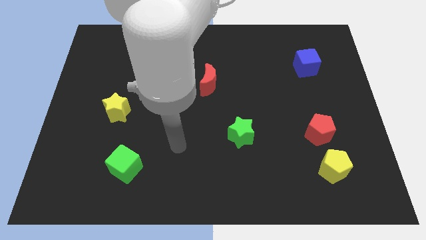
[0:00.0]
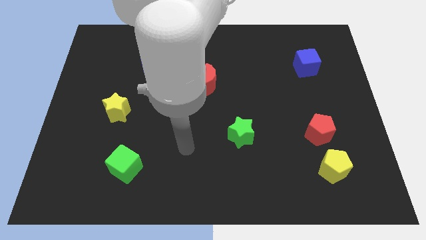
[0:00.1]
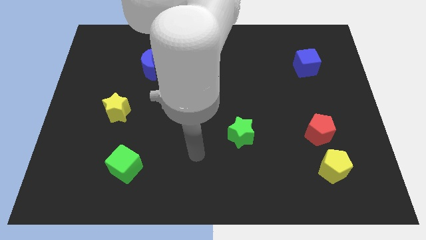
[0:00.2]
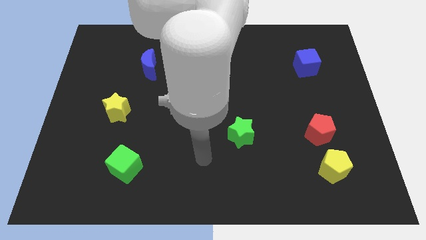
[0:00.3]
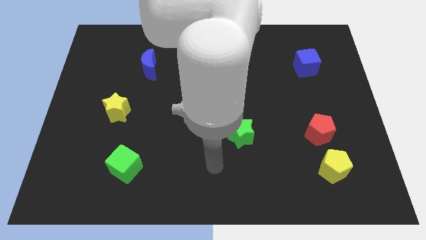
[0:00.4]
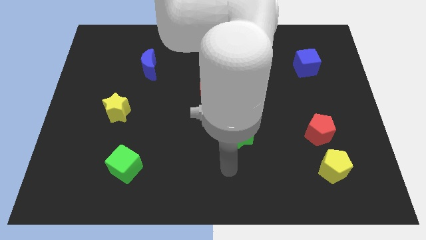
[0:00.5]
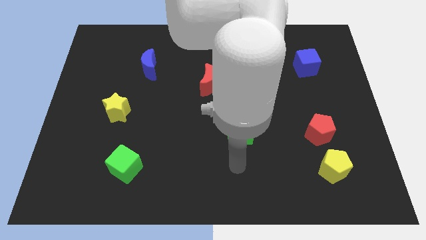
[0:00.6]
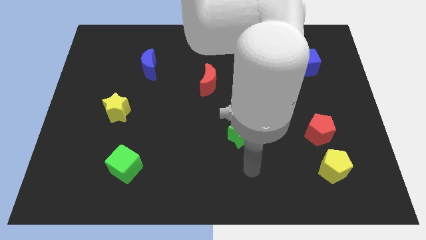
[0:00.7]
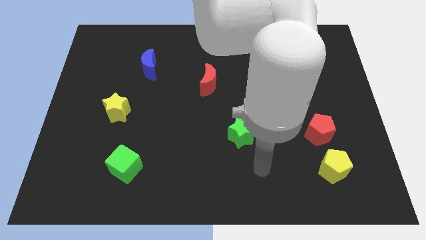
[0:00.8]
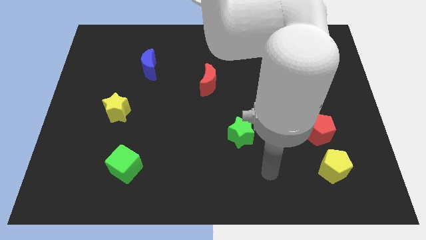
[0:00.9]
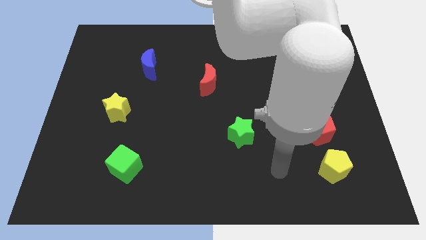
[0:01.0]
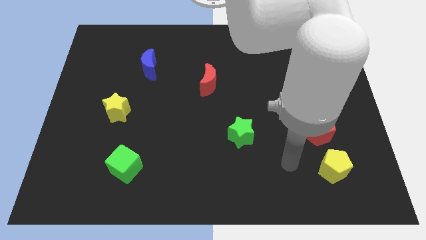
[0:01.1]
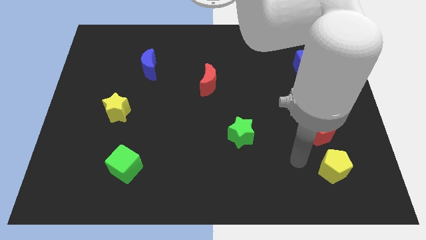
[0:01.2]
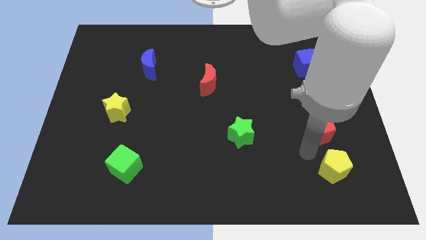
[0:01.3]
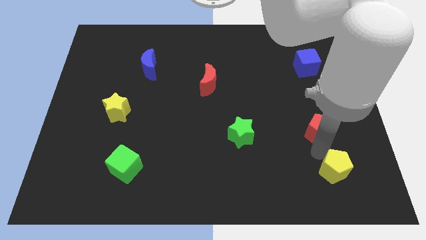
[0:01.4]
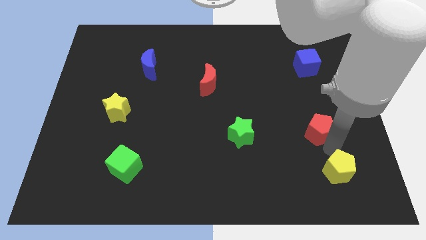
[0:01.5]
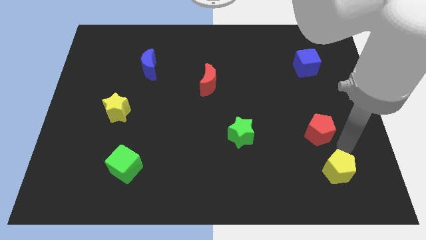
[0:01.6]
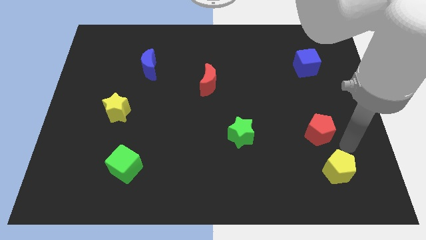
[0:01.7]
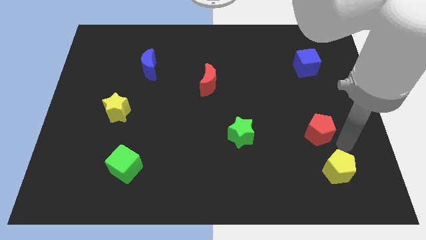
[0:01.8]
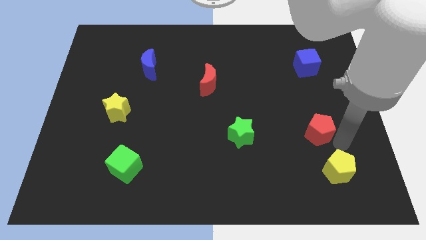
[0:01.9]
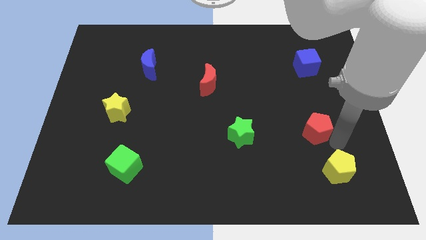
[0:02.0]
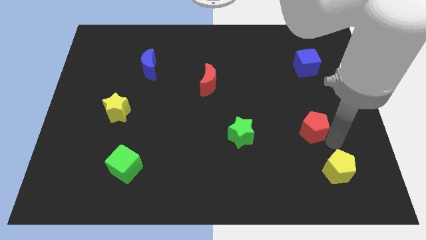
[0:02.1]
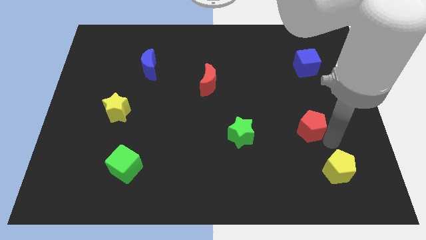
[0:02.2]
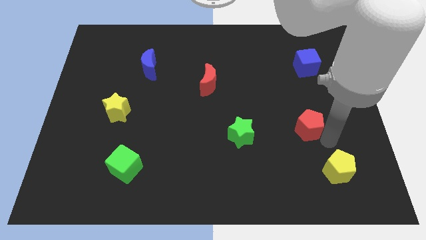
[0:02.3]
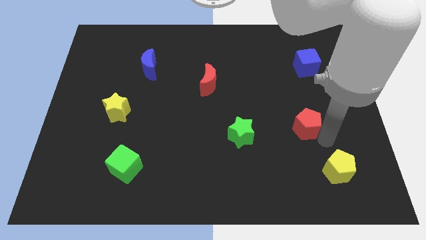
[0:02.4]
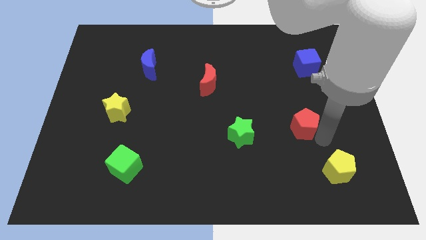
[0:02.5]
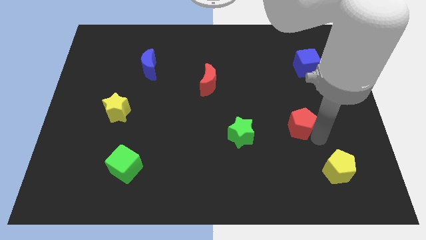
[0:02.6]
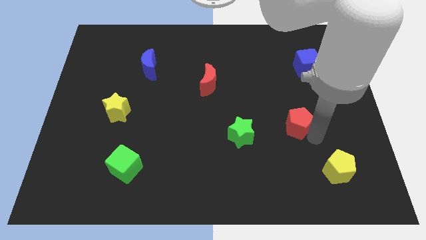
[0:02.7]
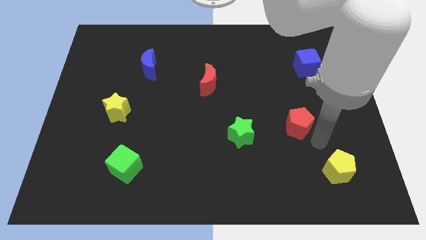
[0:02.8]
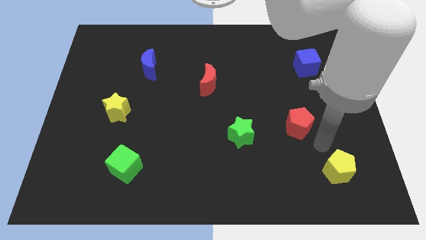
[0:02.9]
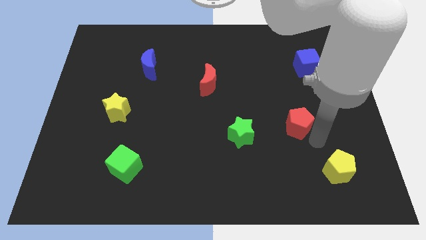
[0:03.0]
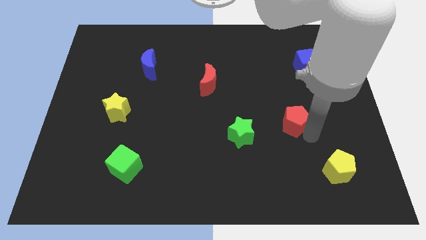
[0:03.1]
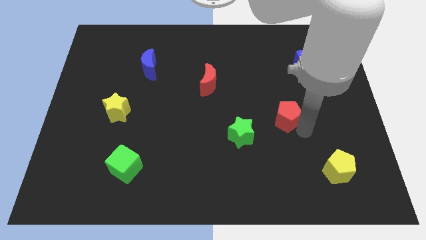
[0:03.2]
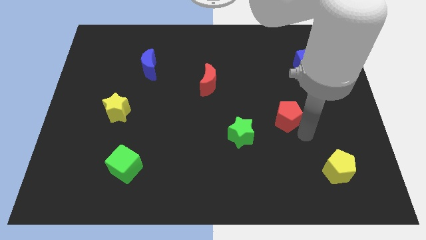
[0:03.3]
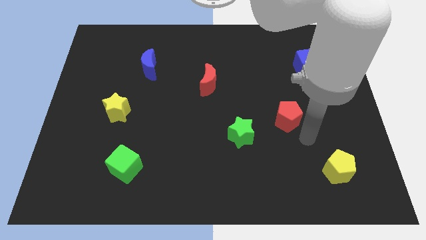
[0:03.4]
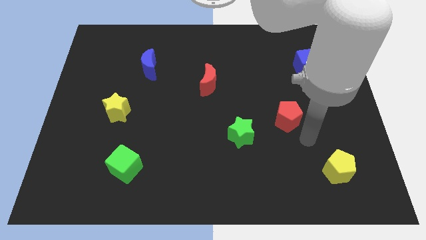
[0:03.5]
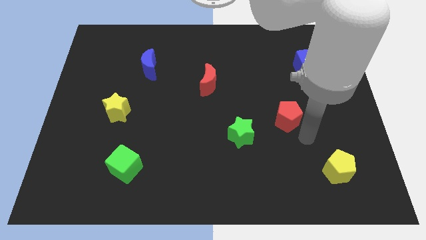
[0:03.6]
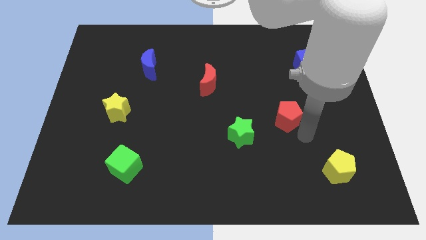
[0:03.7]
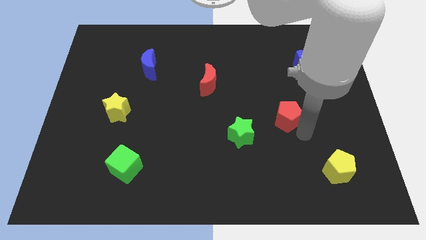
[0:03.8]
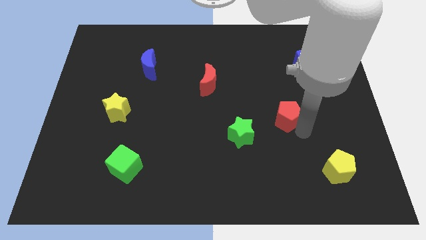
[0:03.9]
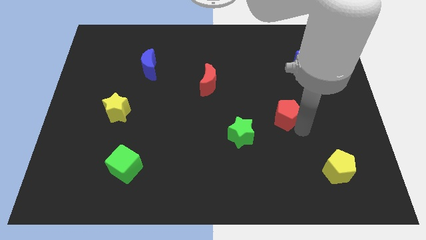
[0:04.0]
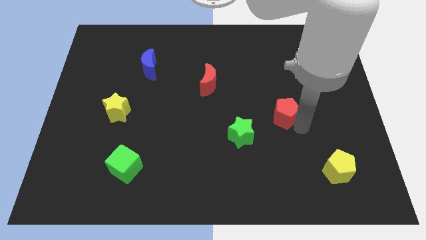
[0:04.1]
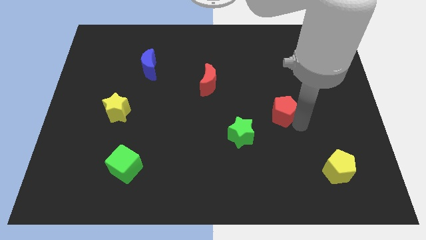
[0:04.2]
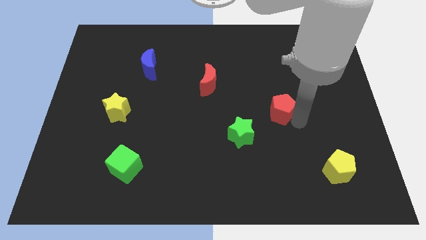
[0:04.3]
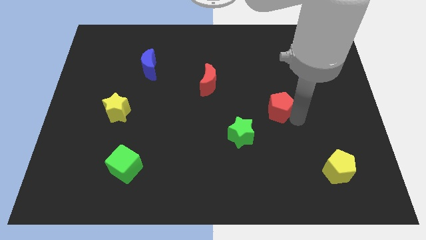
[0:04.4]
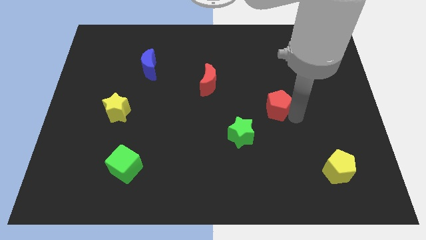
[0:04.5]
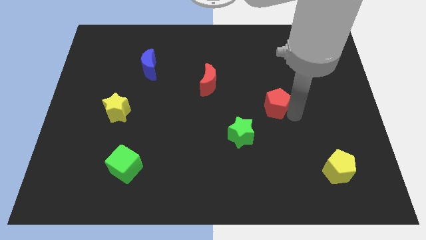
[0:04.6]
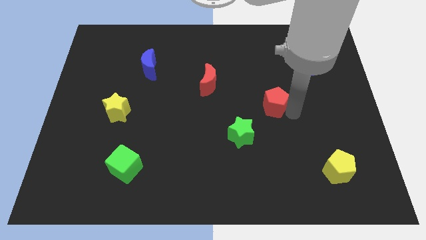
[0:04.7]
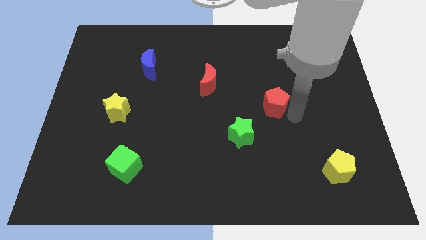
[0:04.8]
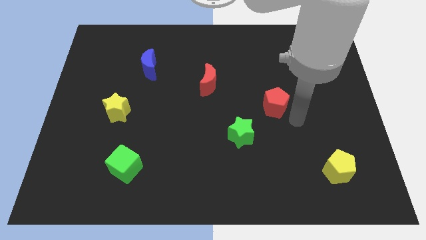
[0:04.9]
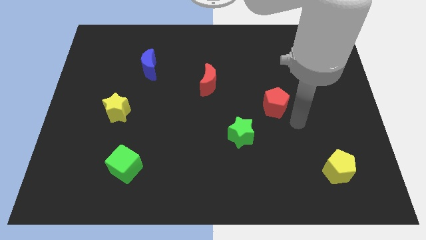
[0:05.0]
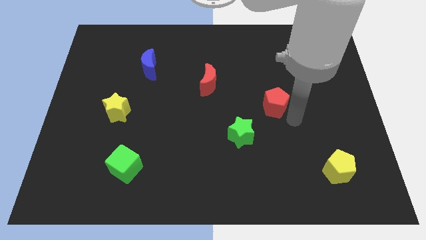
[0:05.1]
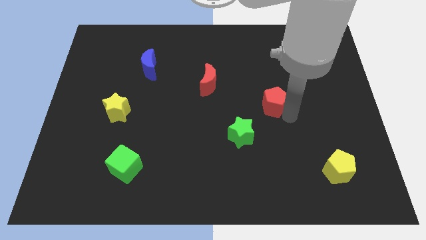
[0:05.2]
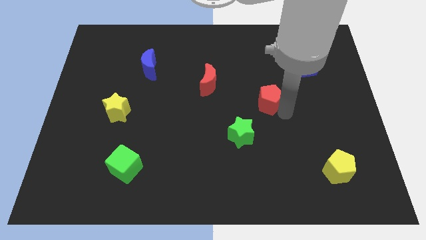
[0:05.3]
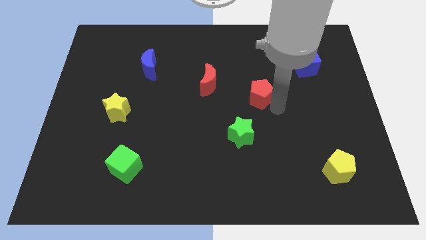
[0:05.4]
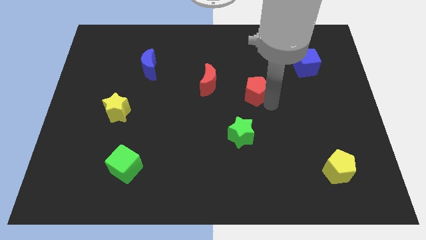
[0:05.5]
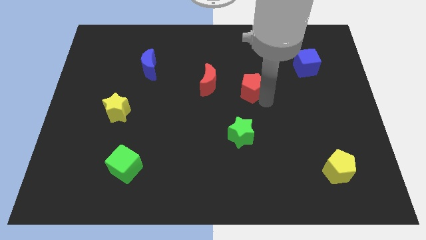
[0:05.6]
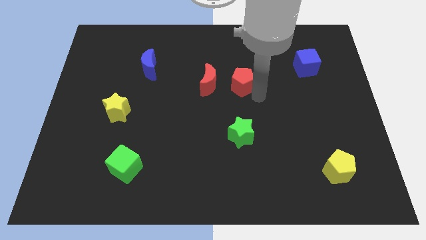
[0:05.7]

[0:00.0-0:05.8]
move the red pentagon diagonally upwards and to the left

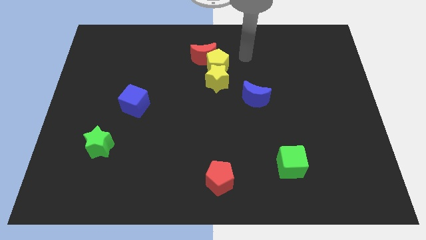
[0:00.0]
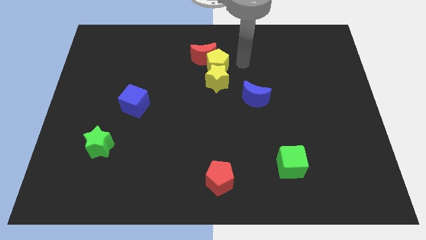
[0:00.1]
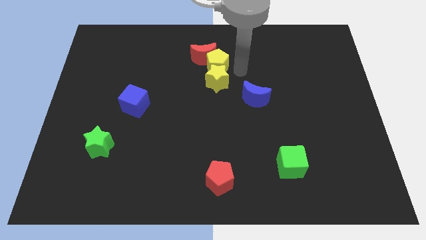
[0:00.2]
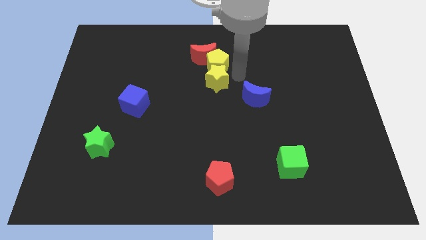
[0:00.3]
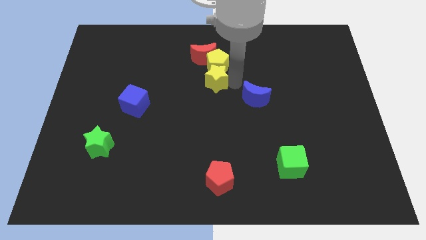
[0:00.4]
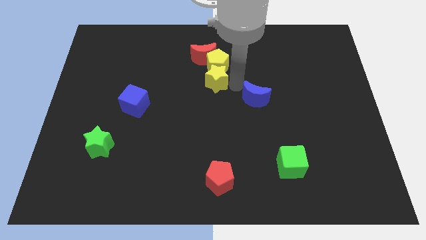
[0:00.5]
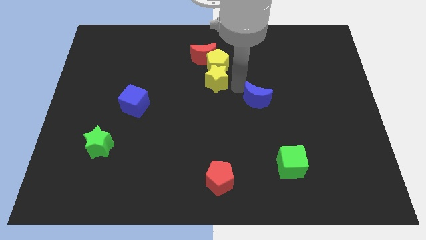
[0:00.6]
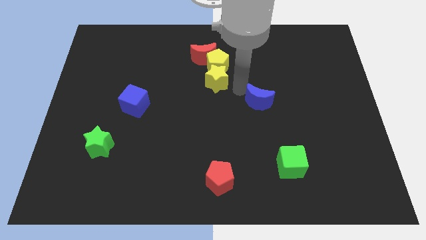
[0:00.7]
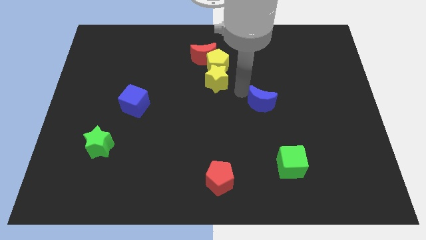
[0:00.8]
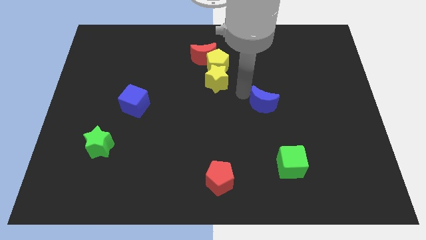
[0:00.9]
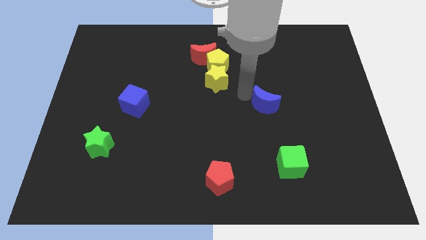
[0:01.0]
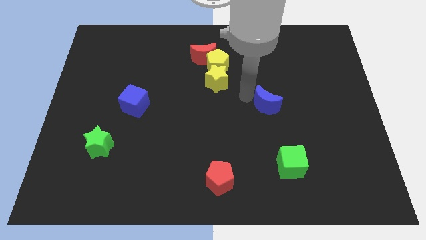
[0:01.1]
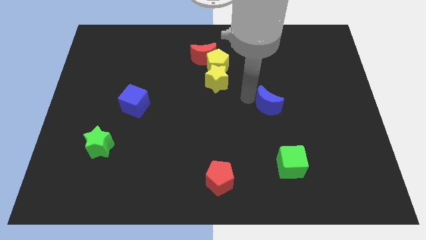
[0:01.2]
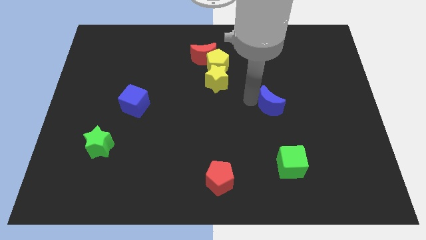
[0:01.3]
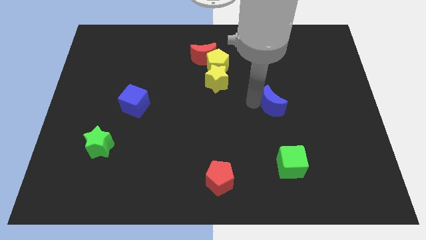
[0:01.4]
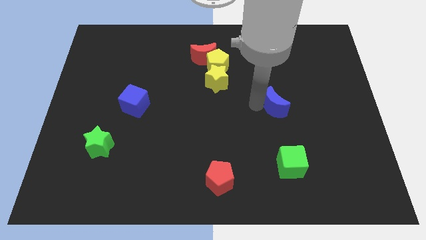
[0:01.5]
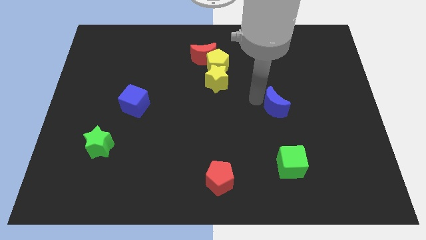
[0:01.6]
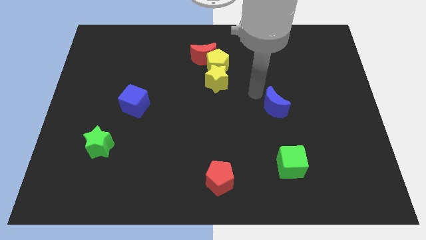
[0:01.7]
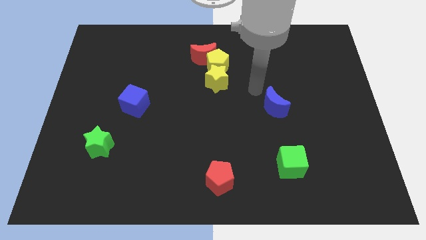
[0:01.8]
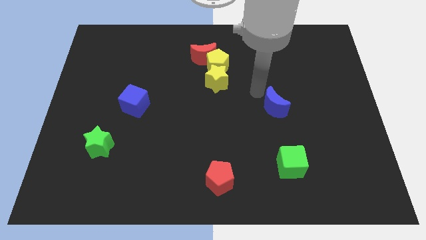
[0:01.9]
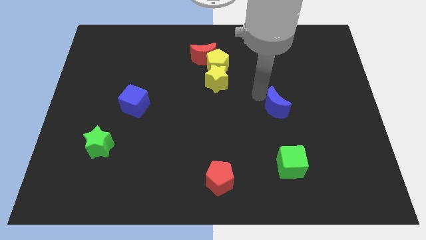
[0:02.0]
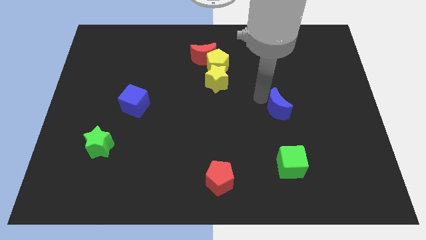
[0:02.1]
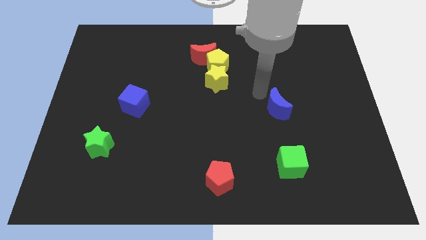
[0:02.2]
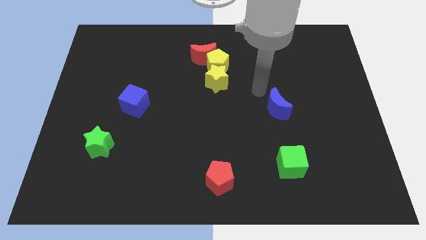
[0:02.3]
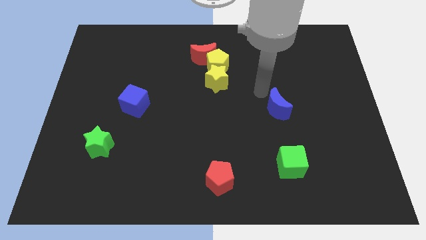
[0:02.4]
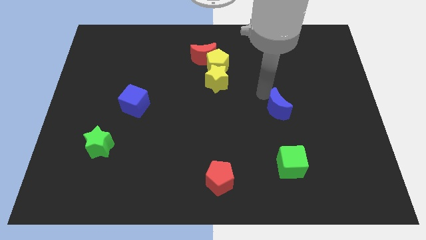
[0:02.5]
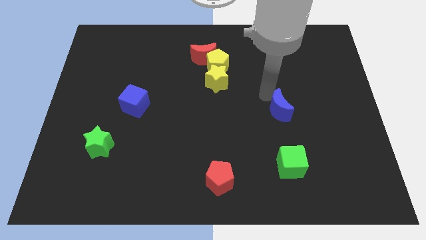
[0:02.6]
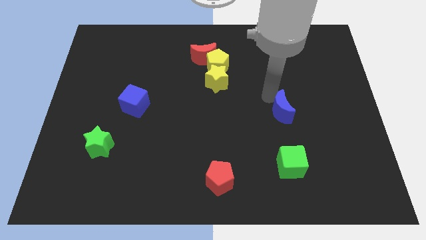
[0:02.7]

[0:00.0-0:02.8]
slightly slide the blue moon down and then to the right
